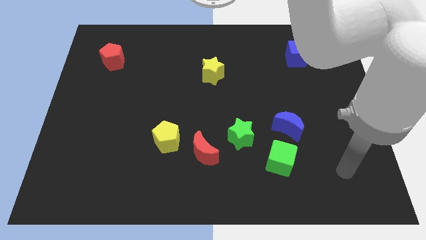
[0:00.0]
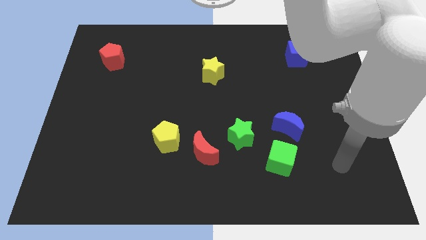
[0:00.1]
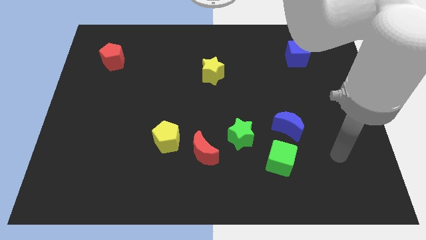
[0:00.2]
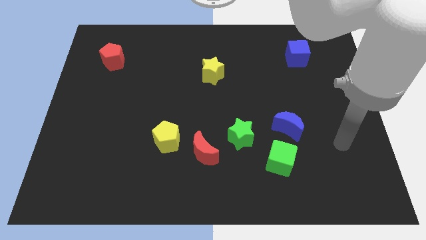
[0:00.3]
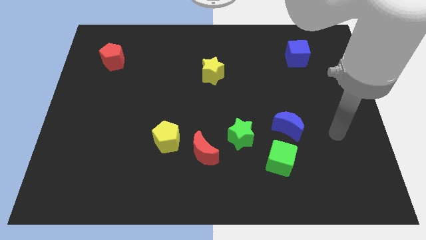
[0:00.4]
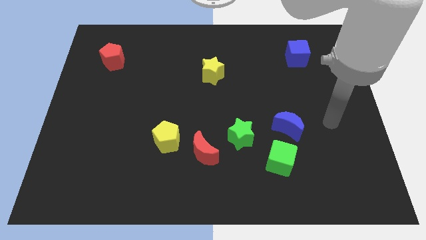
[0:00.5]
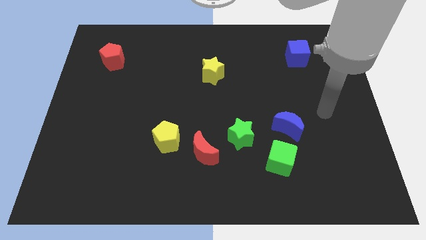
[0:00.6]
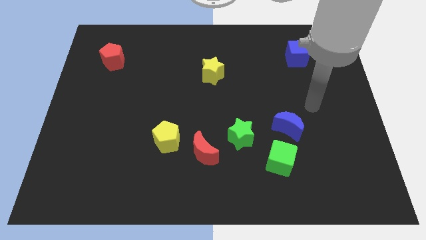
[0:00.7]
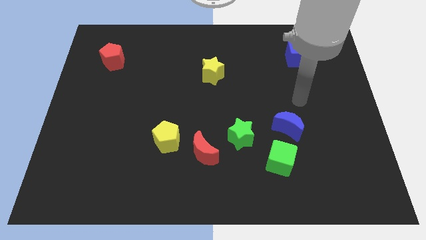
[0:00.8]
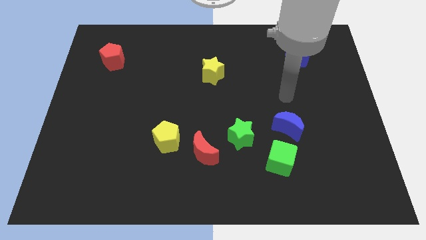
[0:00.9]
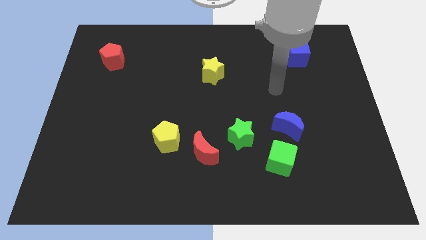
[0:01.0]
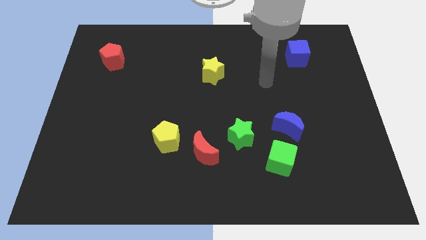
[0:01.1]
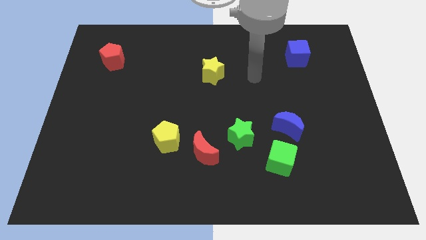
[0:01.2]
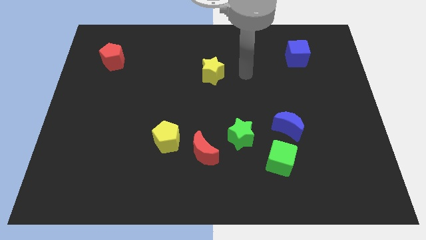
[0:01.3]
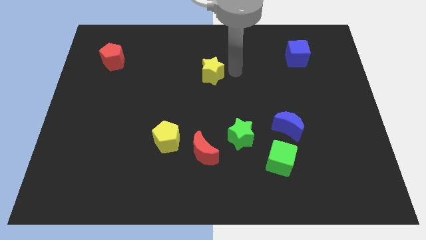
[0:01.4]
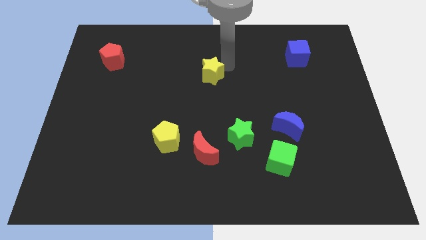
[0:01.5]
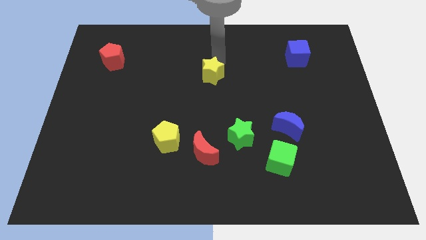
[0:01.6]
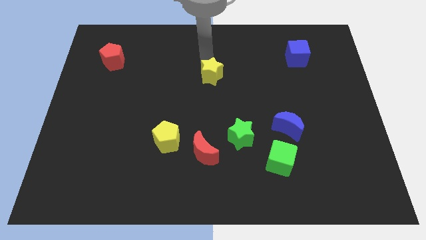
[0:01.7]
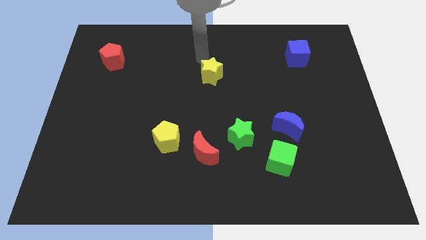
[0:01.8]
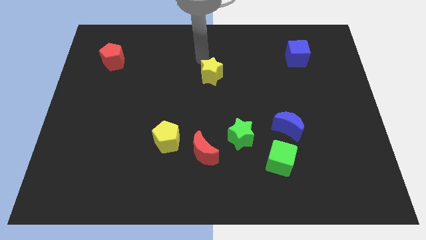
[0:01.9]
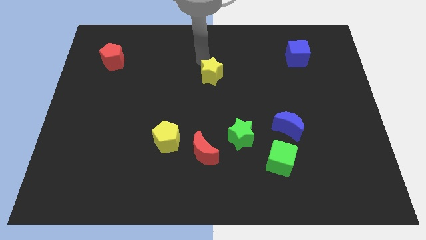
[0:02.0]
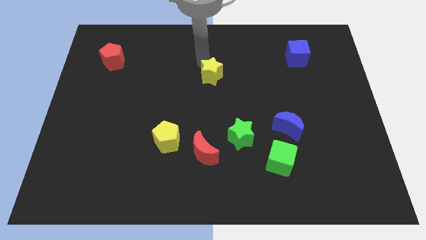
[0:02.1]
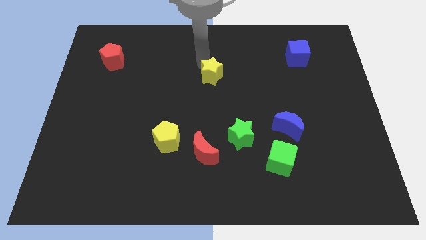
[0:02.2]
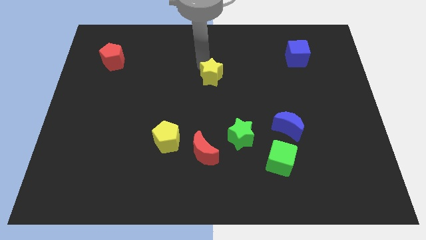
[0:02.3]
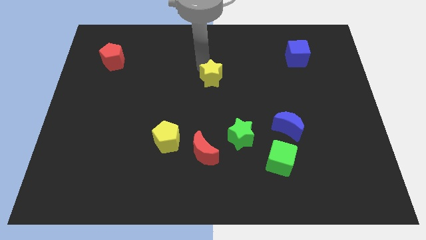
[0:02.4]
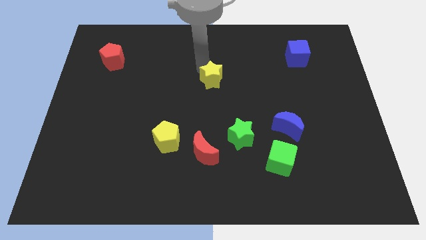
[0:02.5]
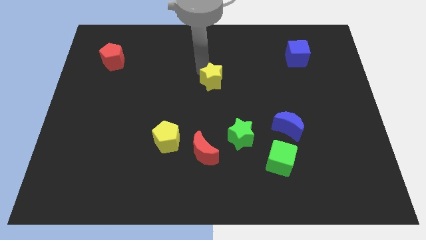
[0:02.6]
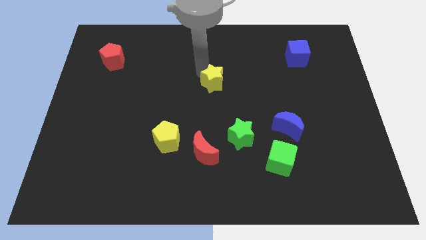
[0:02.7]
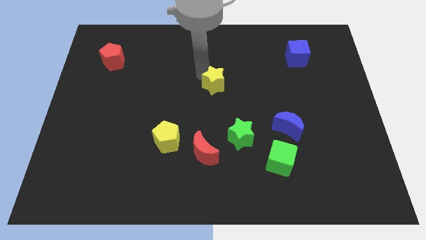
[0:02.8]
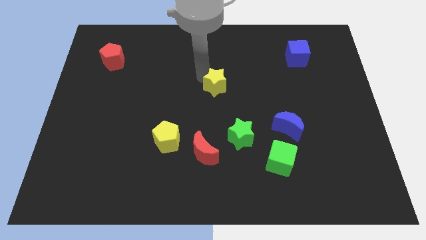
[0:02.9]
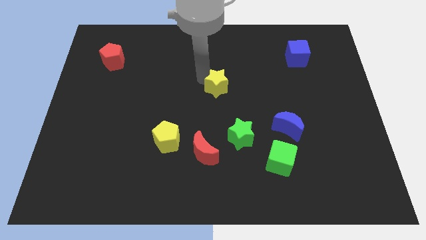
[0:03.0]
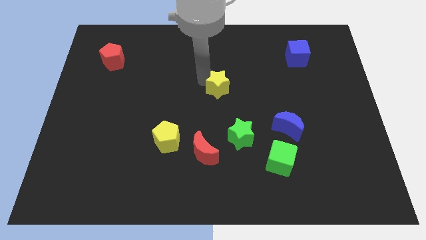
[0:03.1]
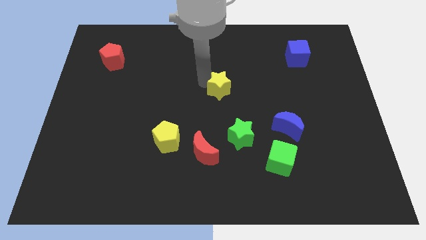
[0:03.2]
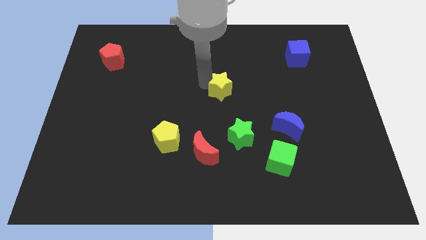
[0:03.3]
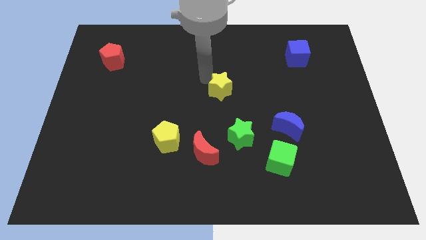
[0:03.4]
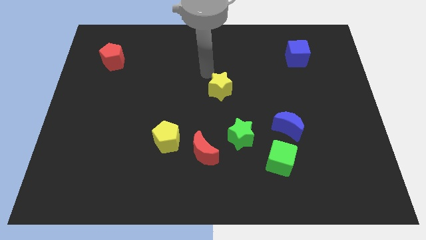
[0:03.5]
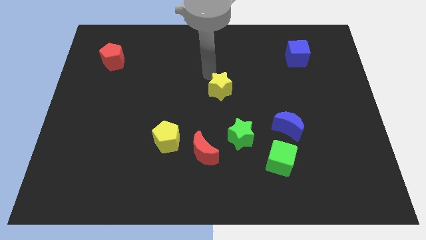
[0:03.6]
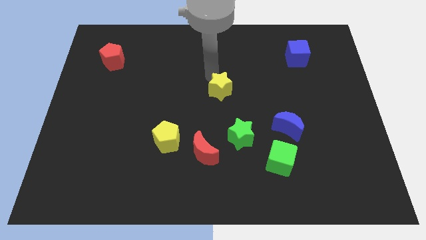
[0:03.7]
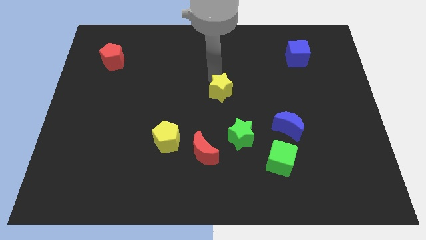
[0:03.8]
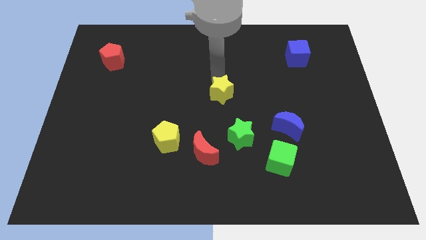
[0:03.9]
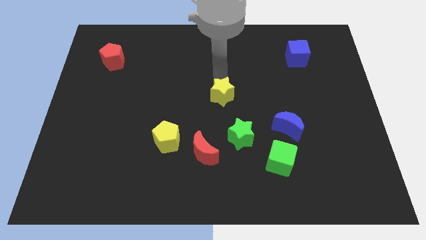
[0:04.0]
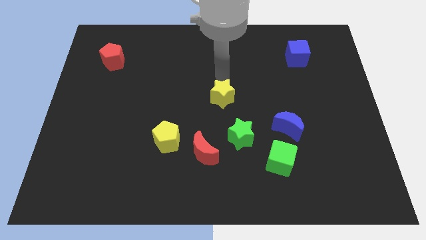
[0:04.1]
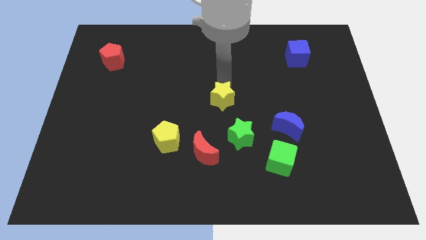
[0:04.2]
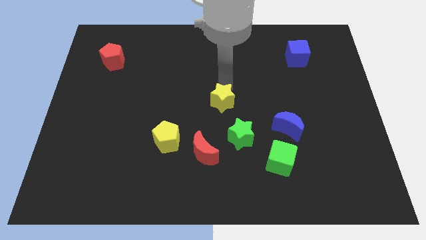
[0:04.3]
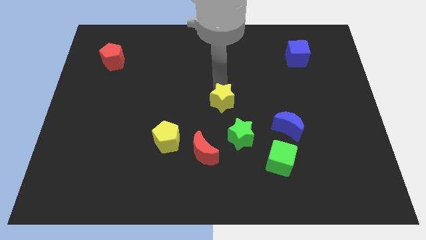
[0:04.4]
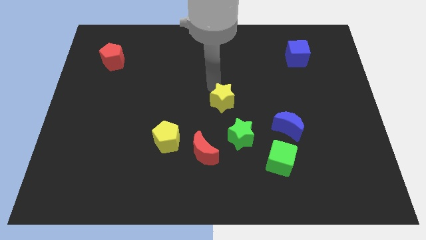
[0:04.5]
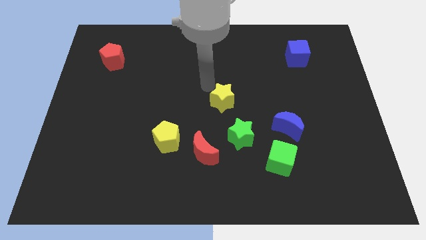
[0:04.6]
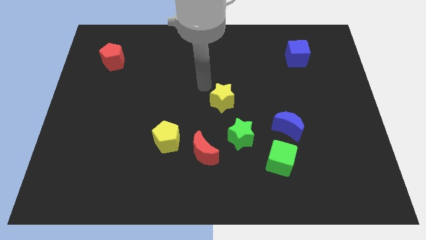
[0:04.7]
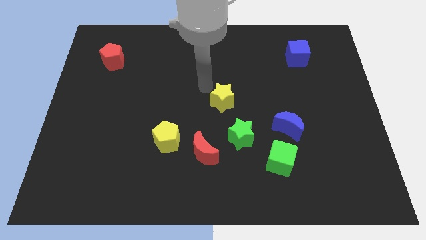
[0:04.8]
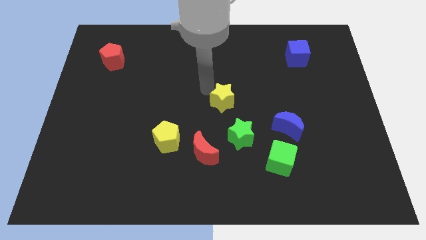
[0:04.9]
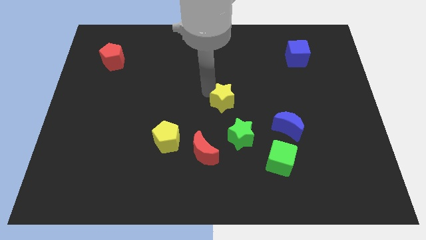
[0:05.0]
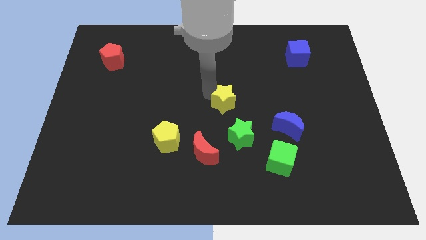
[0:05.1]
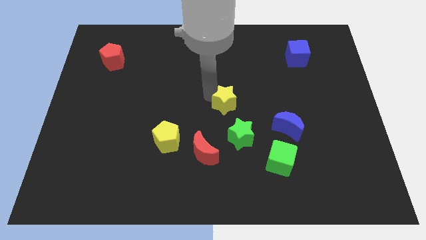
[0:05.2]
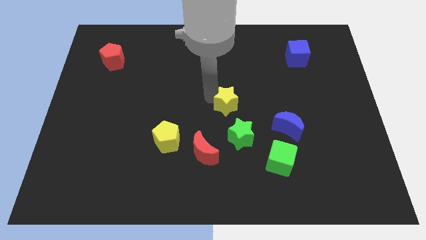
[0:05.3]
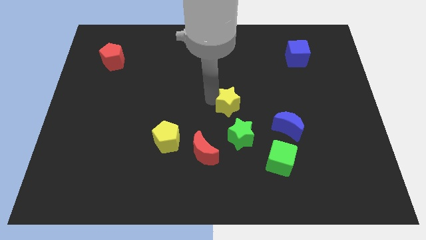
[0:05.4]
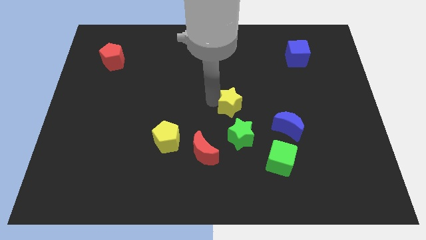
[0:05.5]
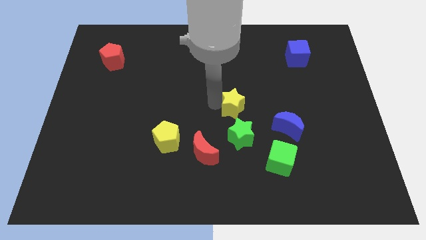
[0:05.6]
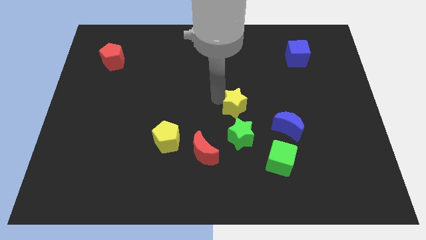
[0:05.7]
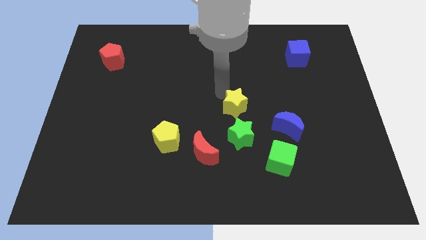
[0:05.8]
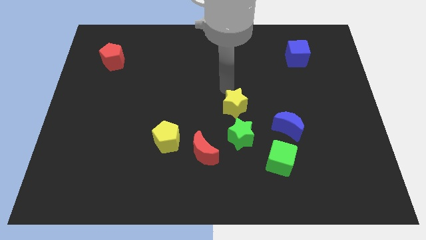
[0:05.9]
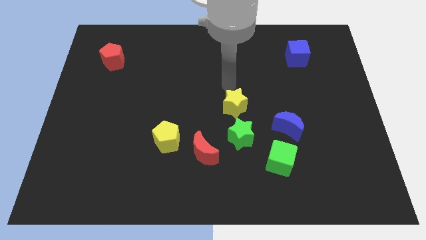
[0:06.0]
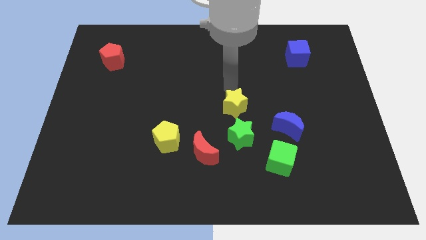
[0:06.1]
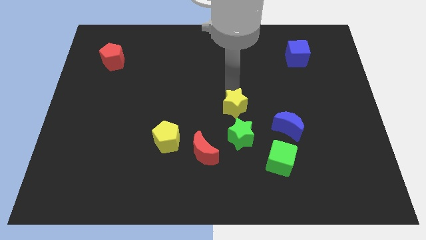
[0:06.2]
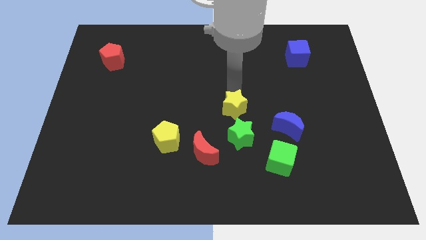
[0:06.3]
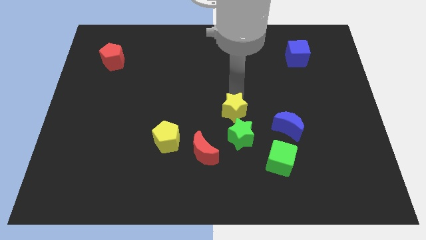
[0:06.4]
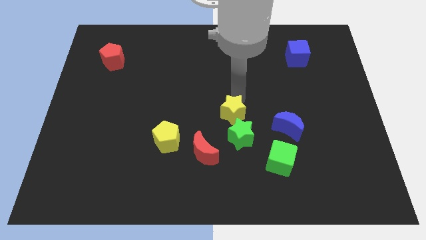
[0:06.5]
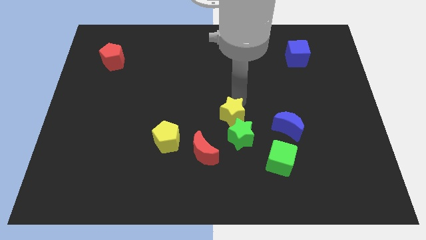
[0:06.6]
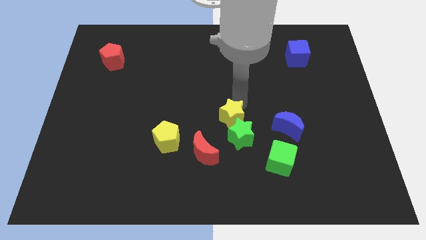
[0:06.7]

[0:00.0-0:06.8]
slide the yellow star next to the green star

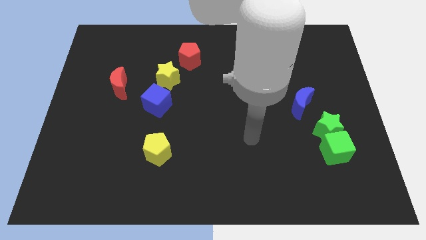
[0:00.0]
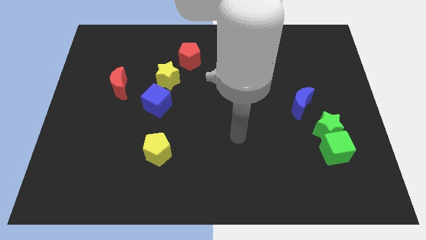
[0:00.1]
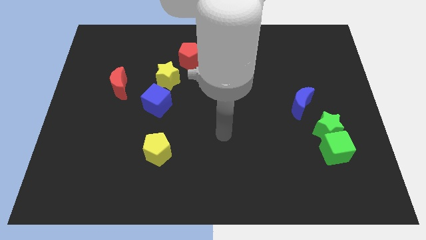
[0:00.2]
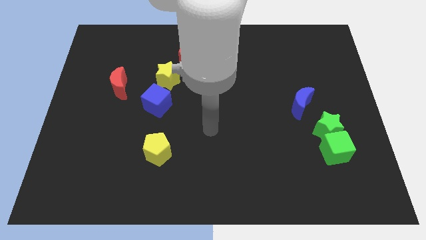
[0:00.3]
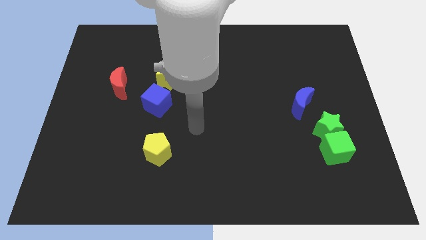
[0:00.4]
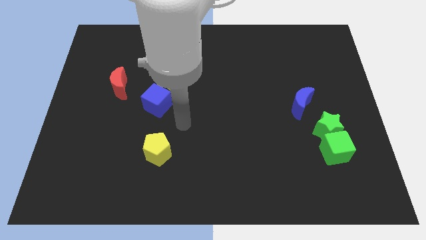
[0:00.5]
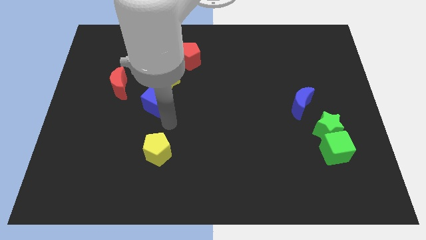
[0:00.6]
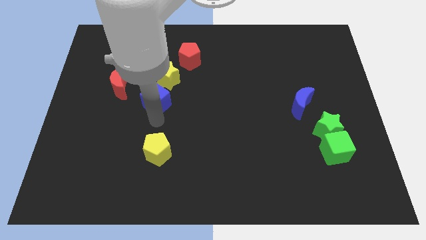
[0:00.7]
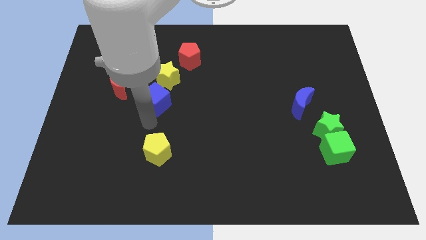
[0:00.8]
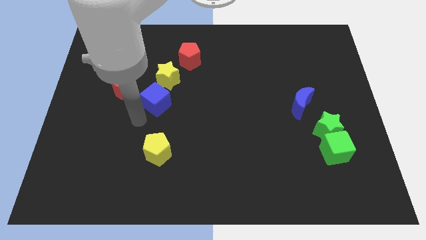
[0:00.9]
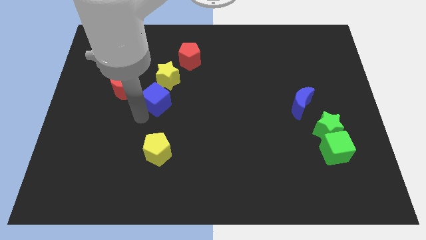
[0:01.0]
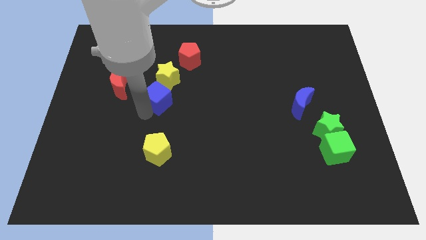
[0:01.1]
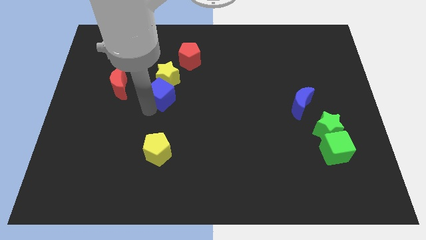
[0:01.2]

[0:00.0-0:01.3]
put the blue cube to the yellow star
